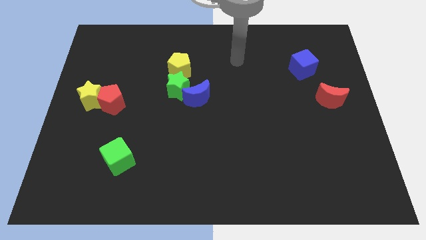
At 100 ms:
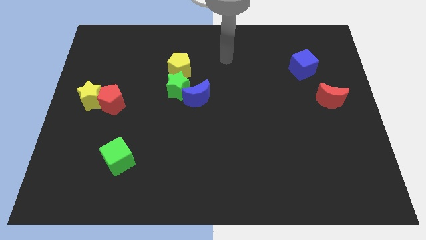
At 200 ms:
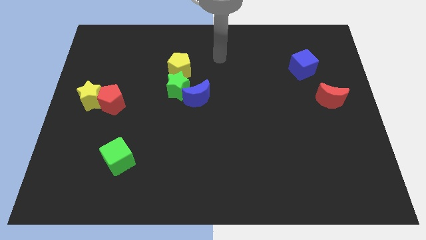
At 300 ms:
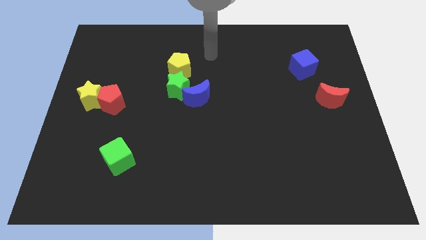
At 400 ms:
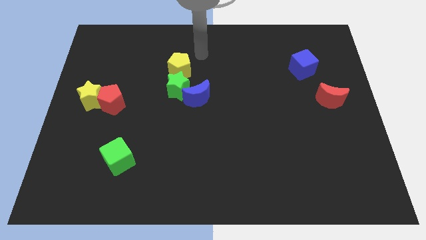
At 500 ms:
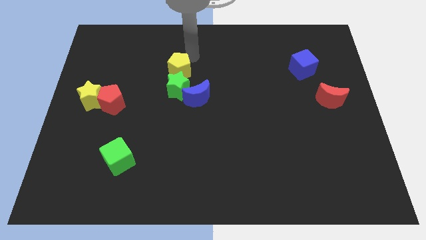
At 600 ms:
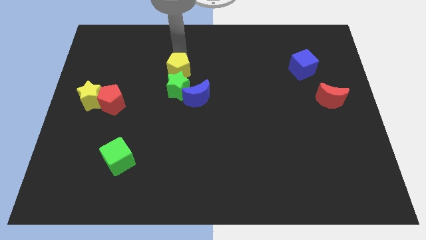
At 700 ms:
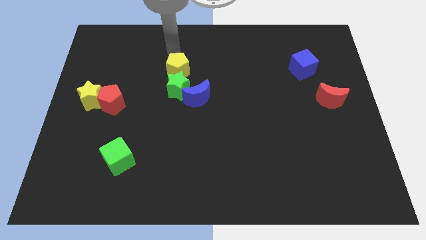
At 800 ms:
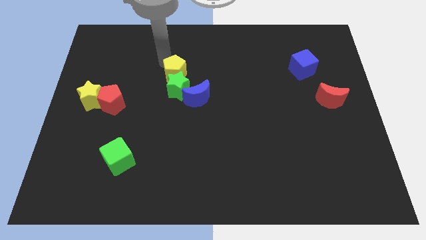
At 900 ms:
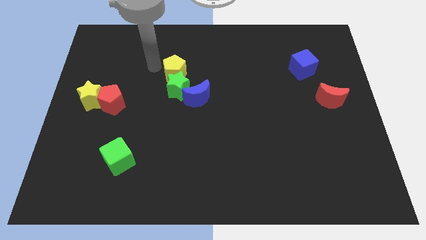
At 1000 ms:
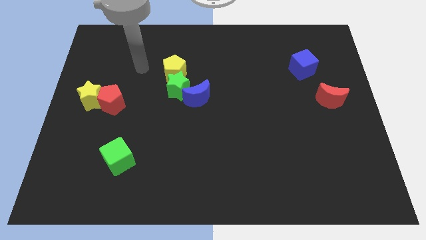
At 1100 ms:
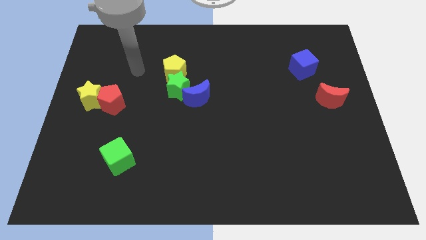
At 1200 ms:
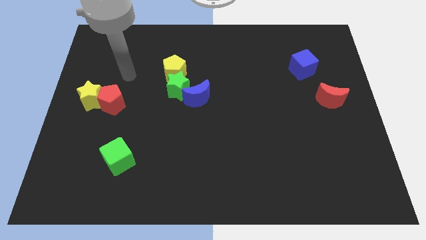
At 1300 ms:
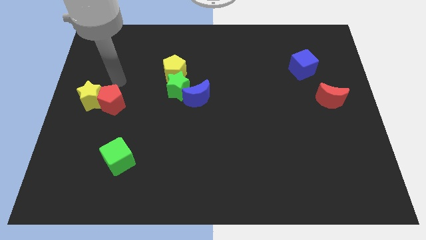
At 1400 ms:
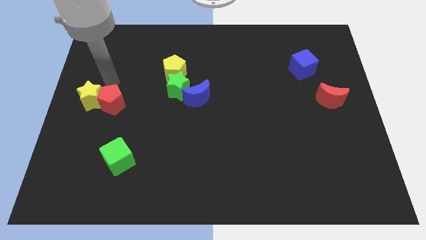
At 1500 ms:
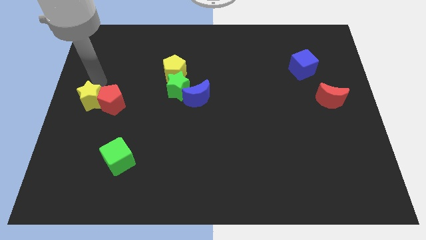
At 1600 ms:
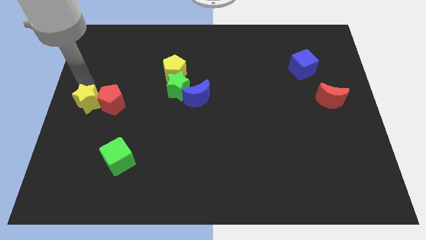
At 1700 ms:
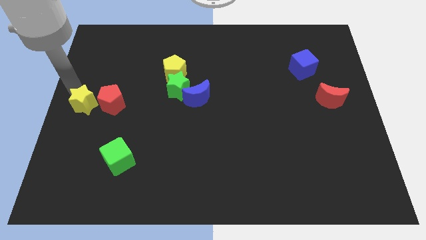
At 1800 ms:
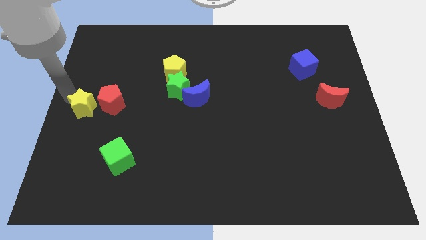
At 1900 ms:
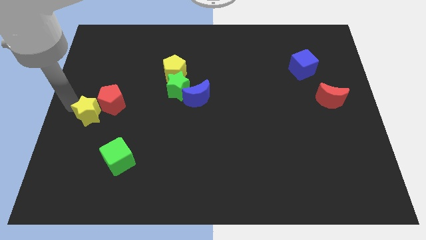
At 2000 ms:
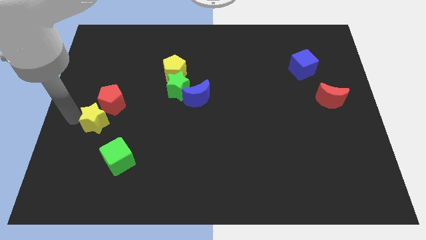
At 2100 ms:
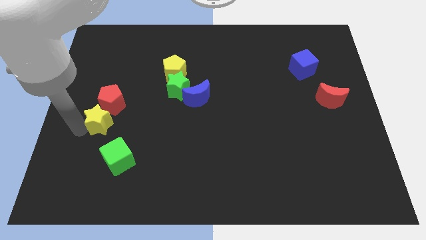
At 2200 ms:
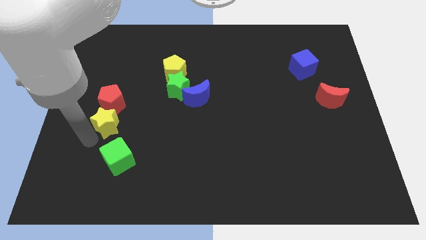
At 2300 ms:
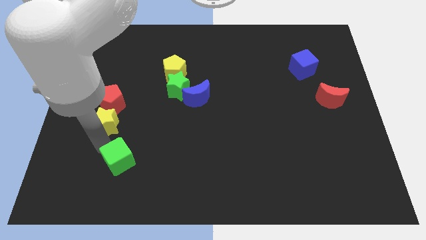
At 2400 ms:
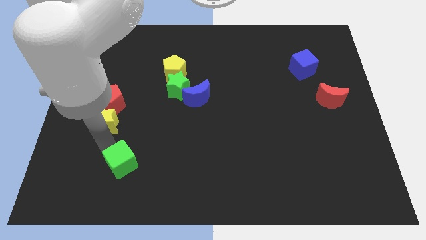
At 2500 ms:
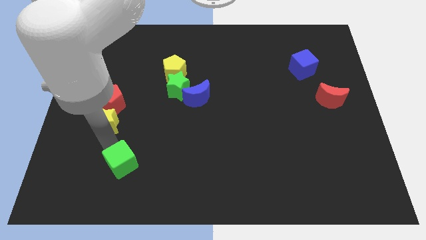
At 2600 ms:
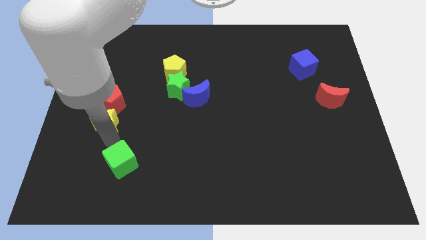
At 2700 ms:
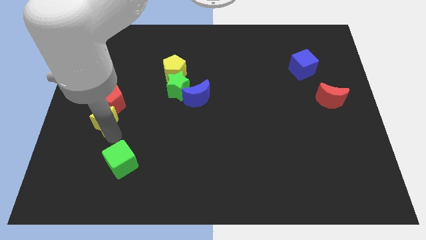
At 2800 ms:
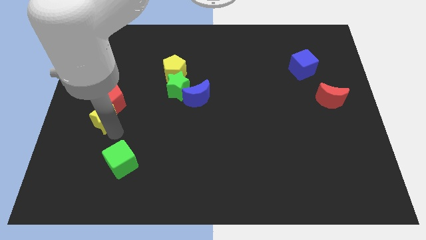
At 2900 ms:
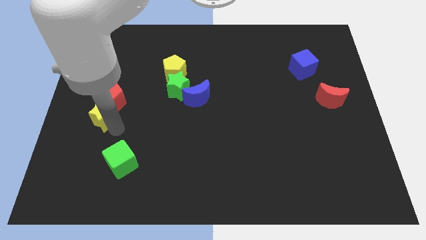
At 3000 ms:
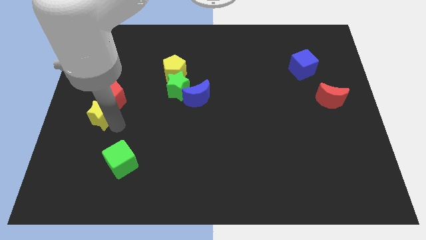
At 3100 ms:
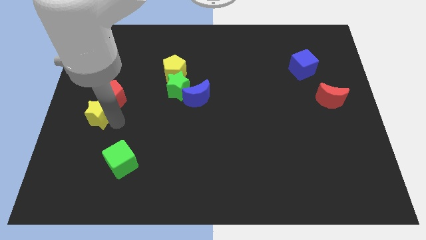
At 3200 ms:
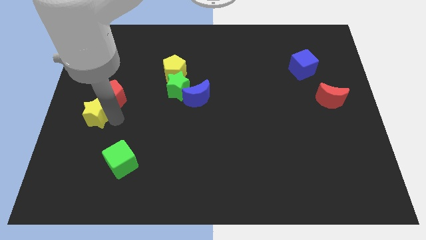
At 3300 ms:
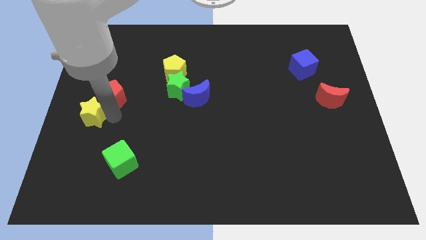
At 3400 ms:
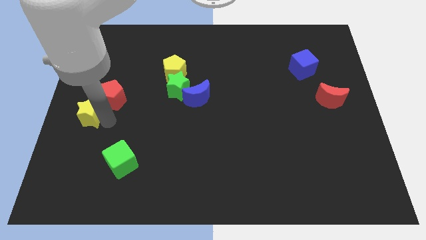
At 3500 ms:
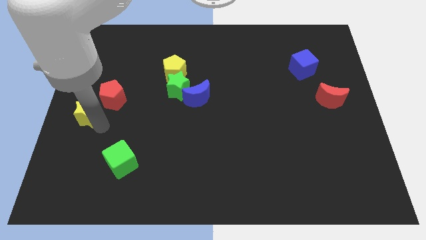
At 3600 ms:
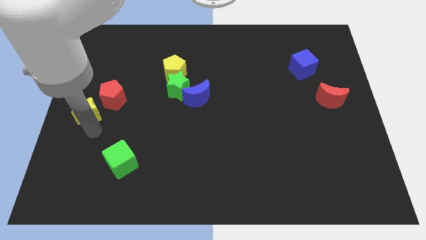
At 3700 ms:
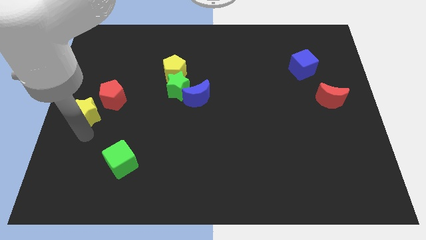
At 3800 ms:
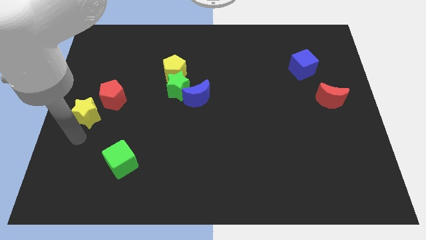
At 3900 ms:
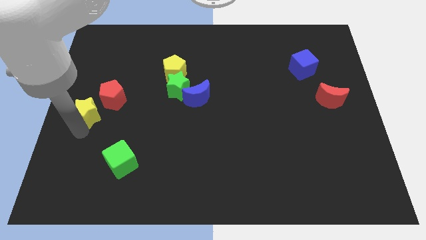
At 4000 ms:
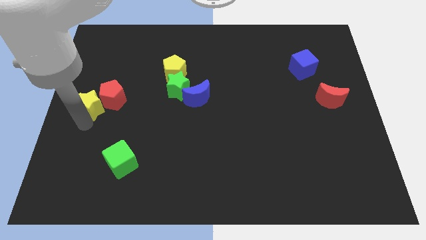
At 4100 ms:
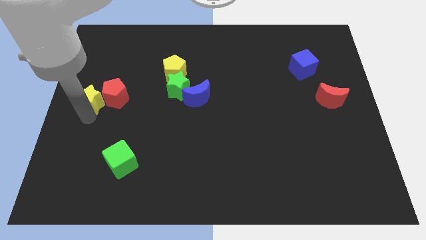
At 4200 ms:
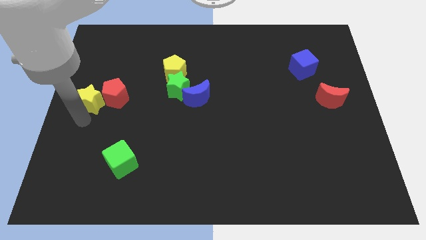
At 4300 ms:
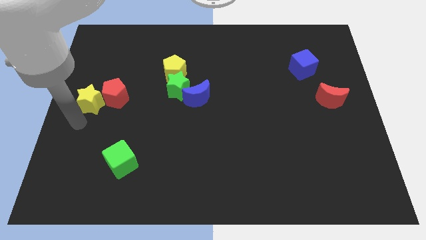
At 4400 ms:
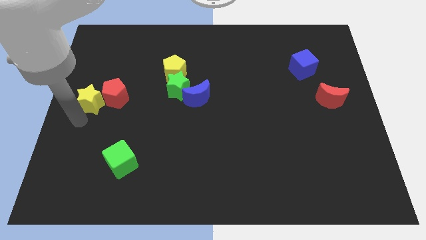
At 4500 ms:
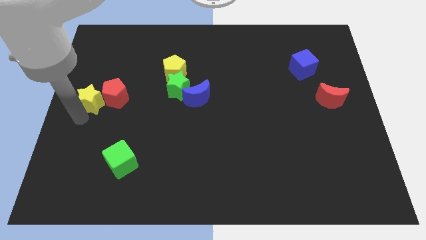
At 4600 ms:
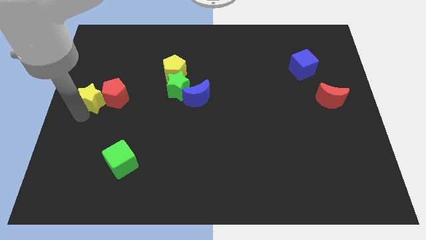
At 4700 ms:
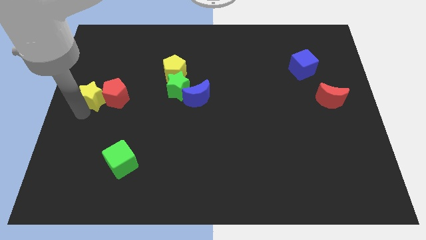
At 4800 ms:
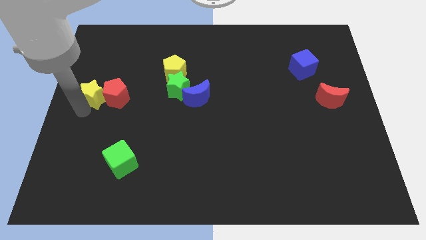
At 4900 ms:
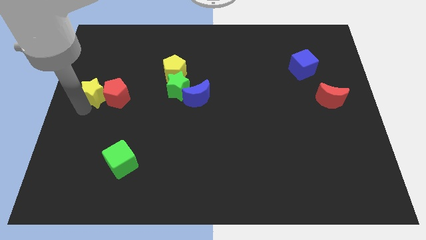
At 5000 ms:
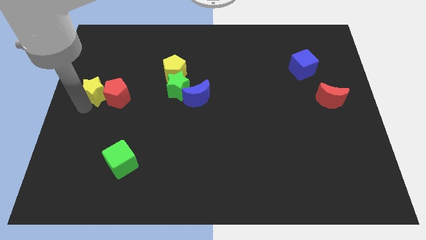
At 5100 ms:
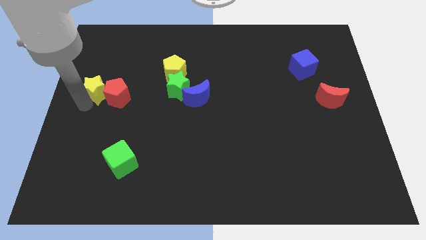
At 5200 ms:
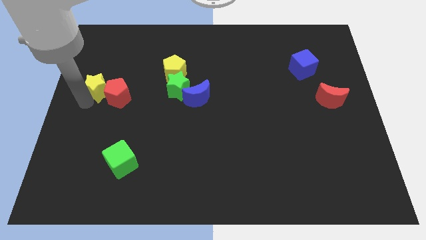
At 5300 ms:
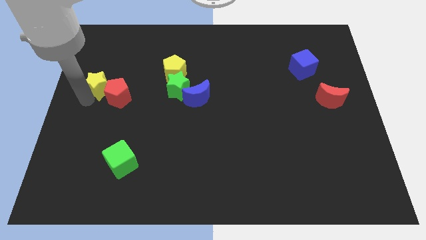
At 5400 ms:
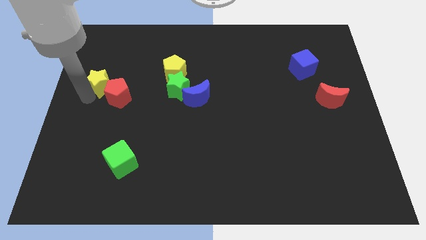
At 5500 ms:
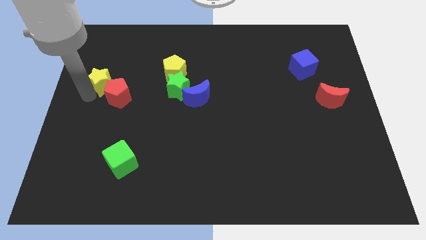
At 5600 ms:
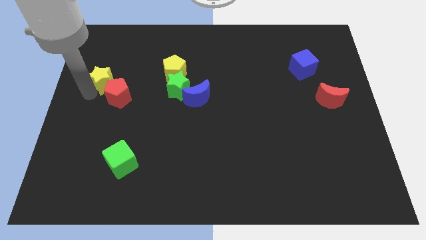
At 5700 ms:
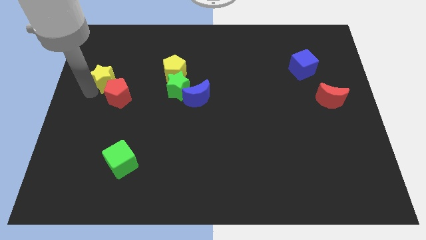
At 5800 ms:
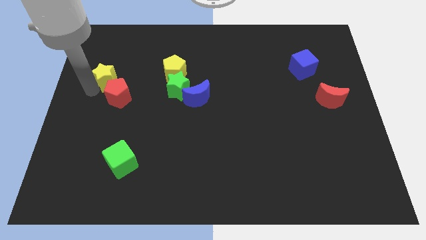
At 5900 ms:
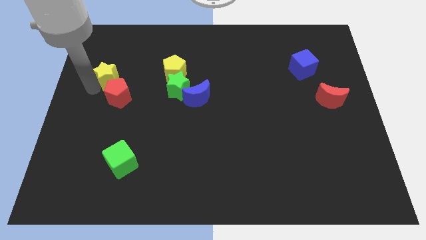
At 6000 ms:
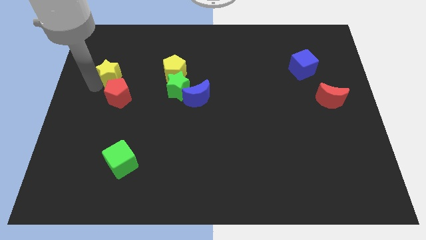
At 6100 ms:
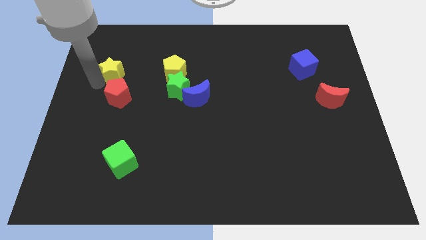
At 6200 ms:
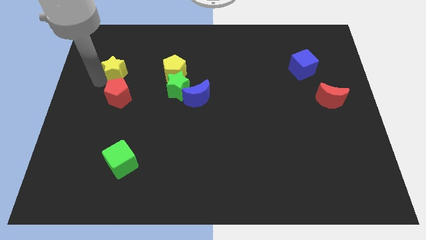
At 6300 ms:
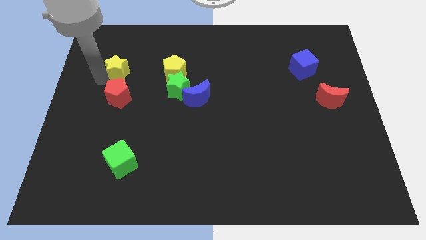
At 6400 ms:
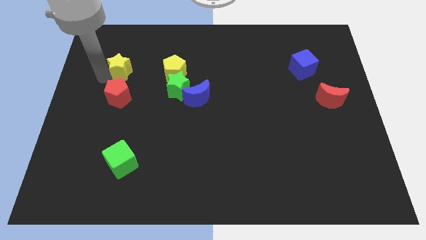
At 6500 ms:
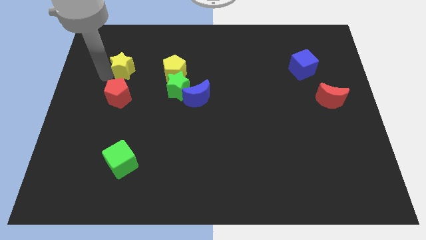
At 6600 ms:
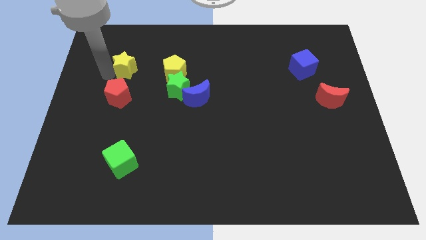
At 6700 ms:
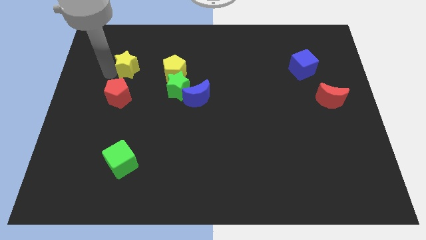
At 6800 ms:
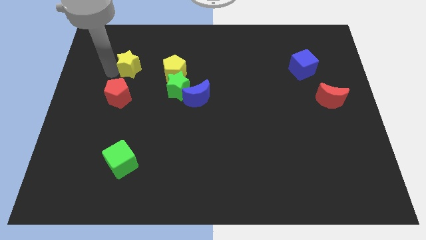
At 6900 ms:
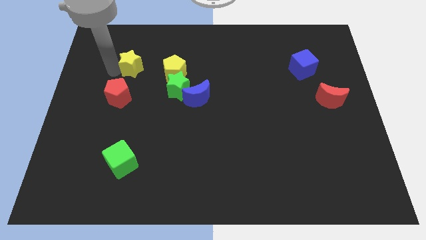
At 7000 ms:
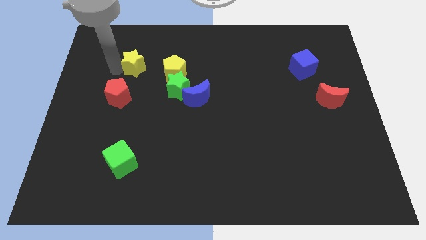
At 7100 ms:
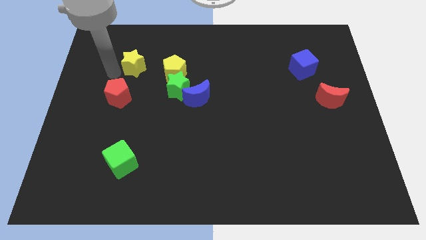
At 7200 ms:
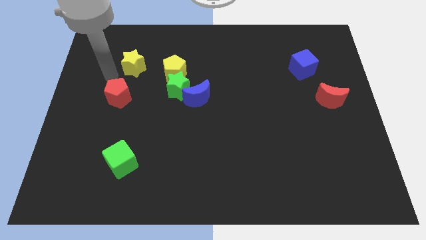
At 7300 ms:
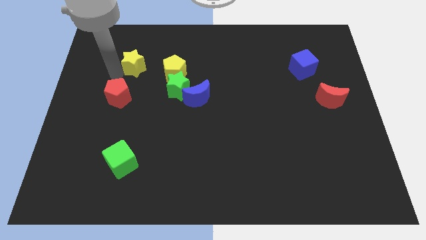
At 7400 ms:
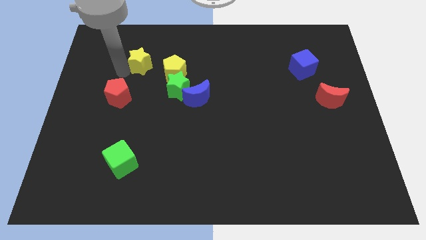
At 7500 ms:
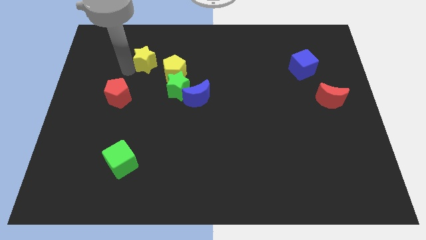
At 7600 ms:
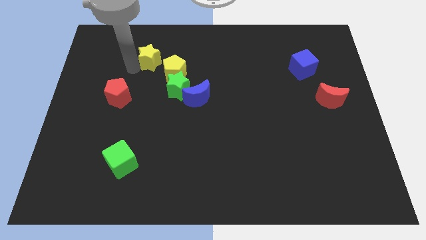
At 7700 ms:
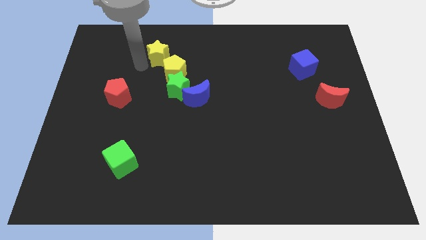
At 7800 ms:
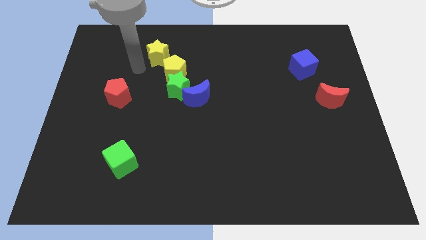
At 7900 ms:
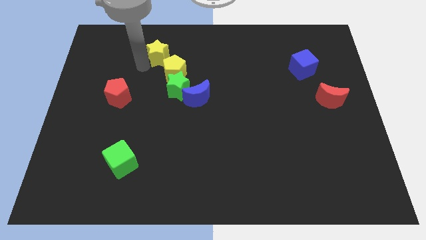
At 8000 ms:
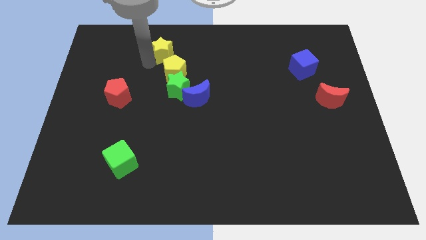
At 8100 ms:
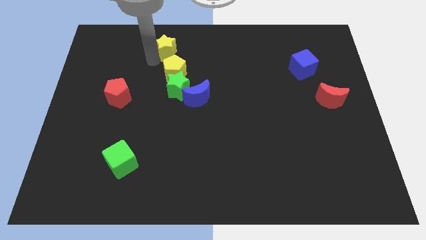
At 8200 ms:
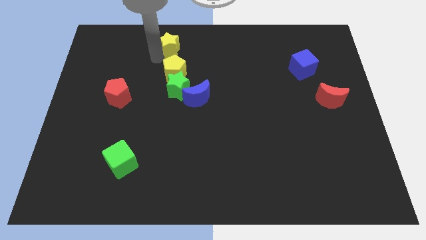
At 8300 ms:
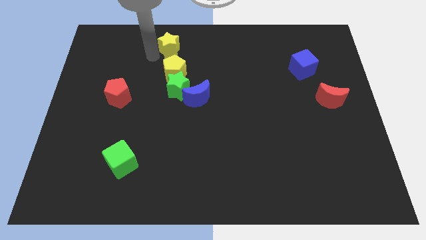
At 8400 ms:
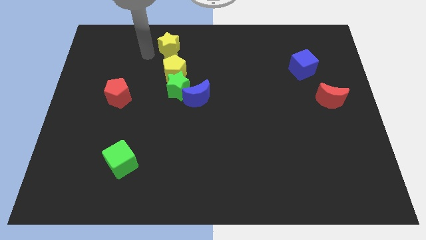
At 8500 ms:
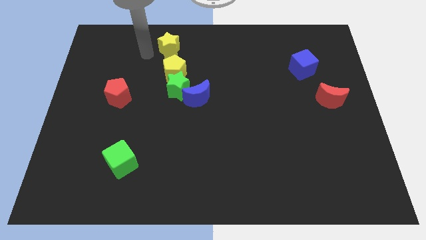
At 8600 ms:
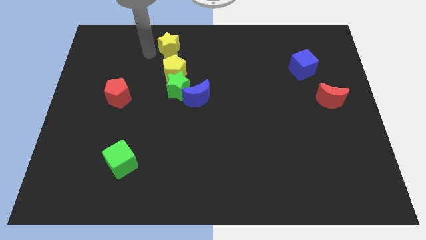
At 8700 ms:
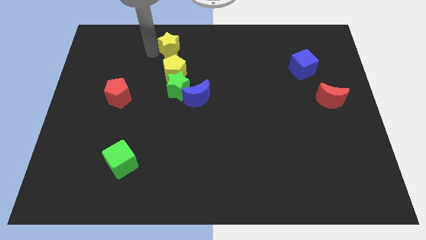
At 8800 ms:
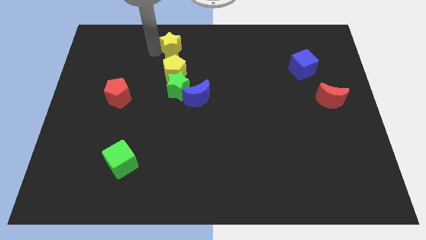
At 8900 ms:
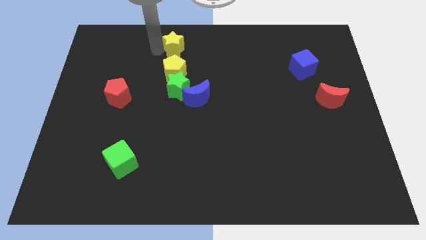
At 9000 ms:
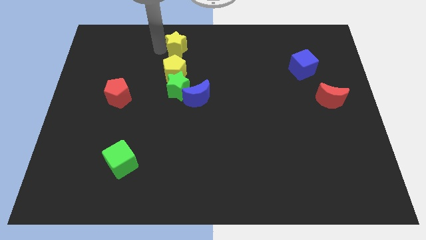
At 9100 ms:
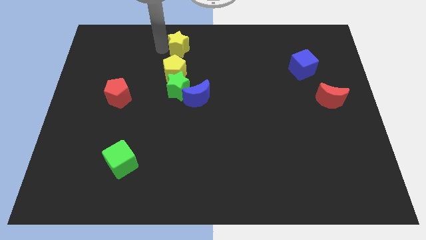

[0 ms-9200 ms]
slide the yellow star to the top
